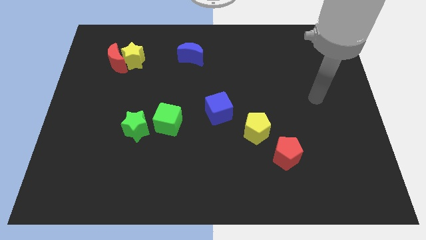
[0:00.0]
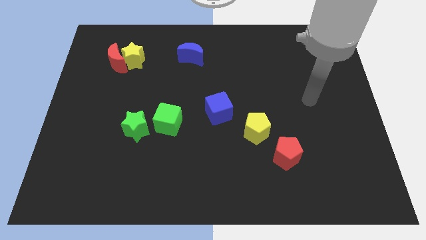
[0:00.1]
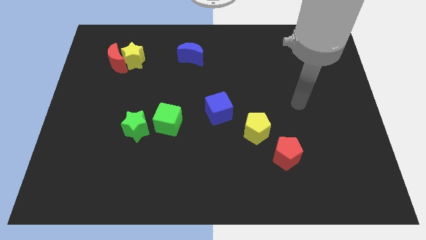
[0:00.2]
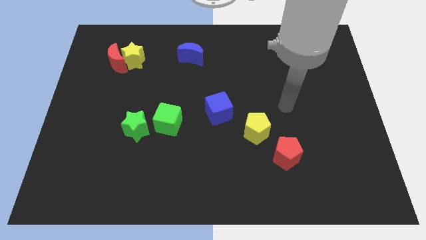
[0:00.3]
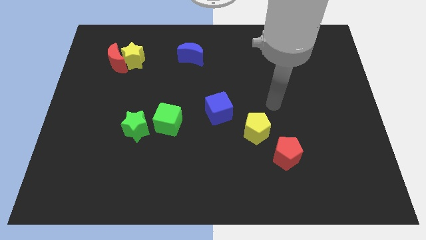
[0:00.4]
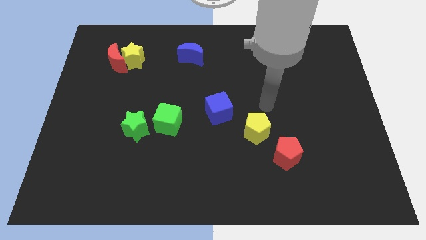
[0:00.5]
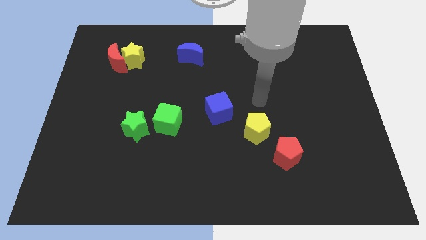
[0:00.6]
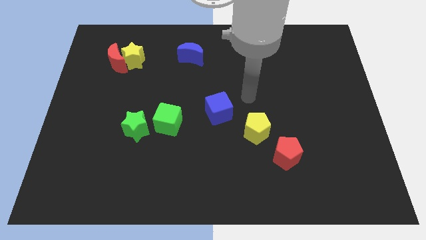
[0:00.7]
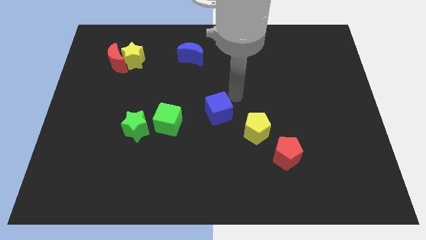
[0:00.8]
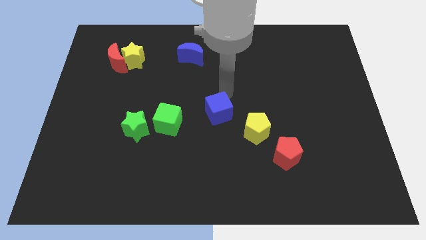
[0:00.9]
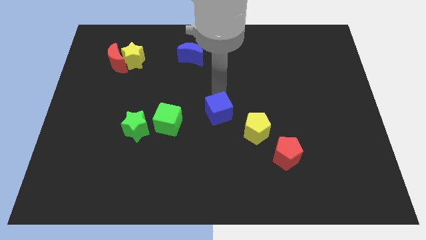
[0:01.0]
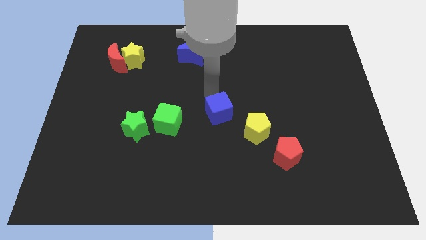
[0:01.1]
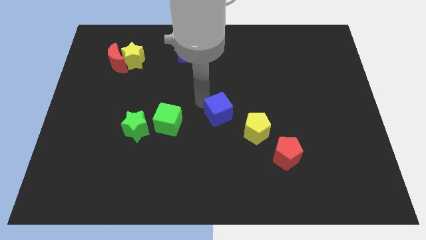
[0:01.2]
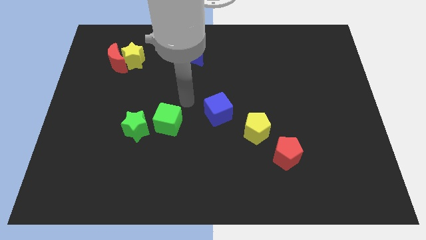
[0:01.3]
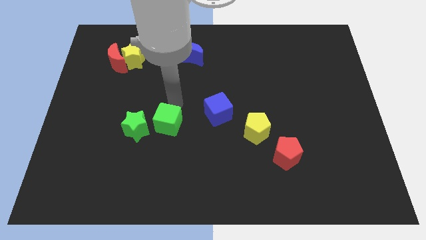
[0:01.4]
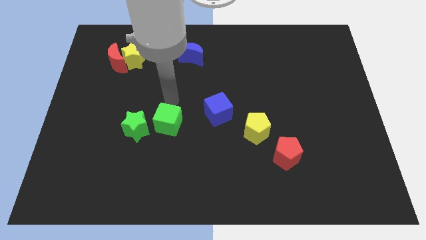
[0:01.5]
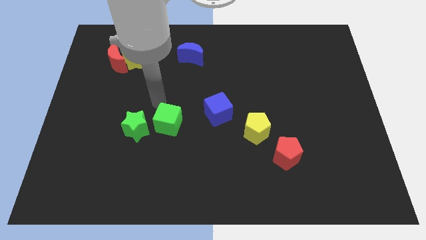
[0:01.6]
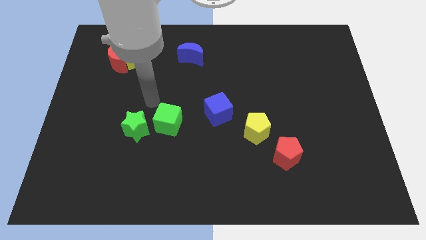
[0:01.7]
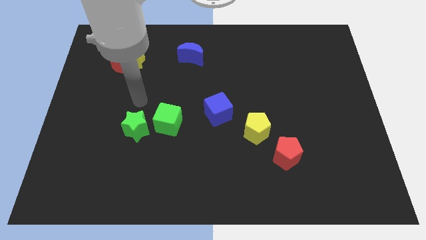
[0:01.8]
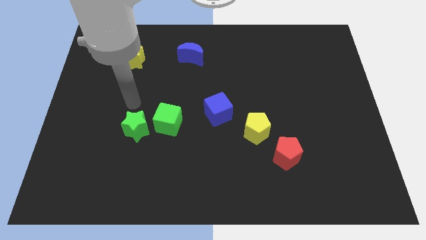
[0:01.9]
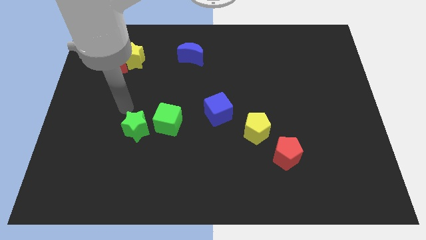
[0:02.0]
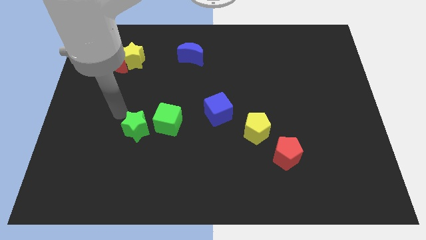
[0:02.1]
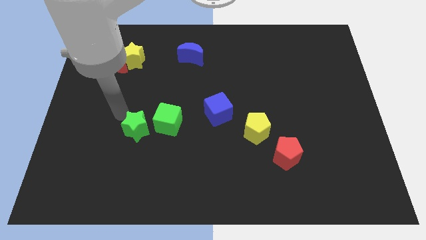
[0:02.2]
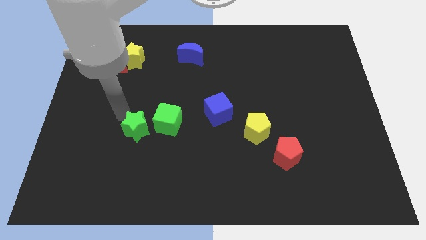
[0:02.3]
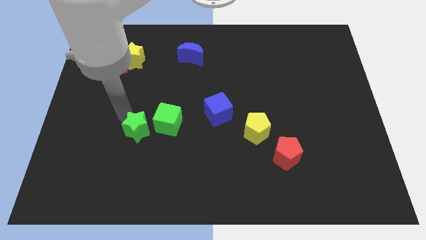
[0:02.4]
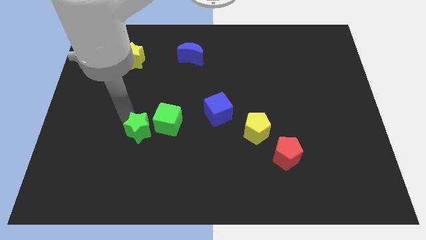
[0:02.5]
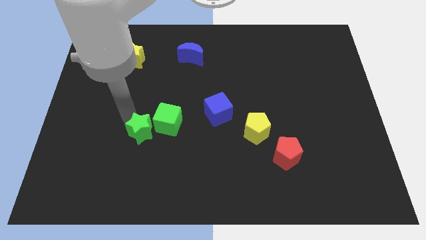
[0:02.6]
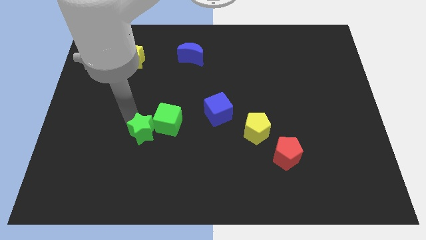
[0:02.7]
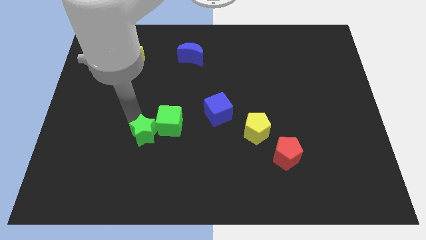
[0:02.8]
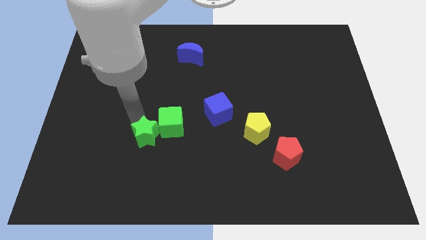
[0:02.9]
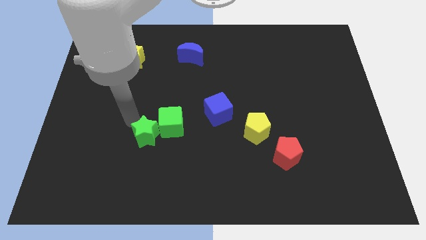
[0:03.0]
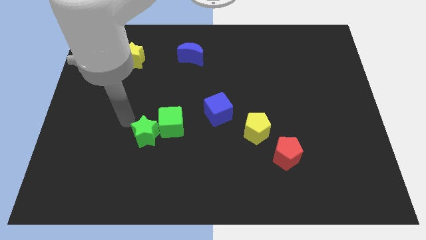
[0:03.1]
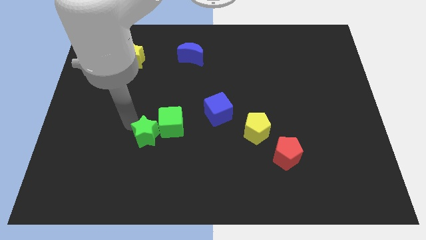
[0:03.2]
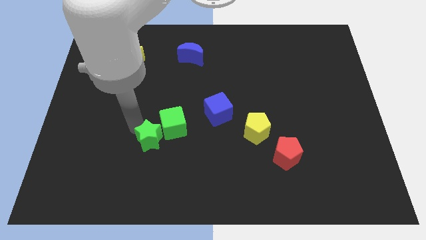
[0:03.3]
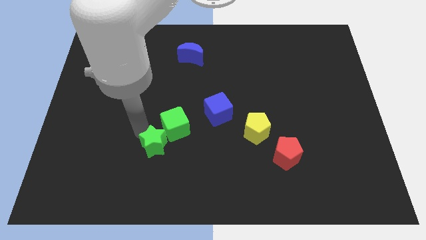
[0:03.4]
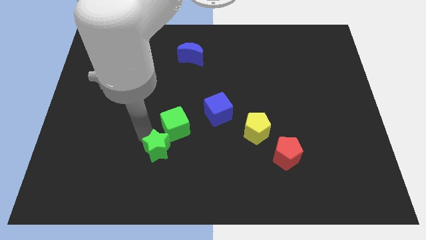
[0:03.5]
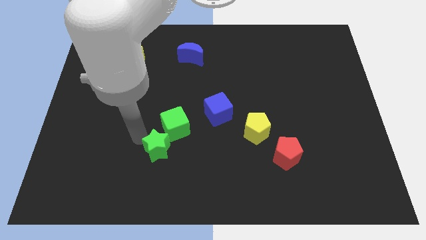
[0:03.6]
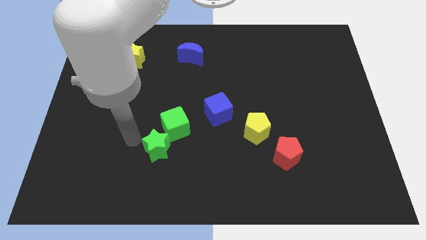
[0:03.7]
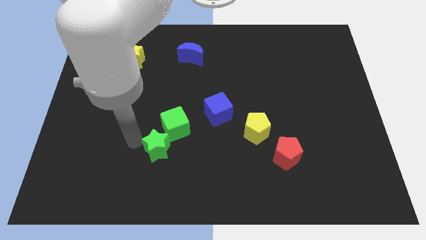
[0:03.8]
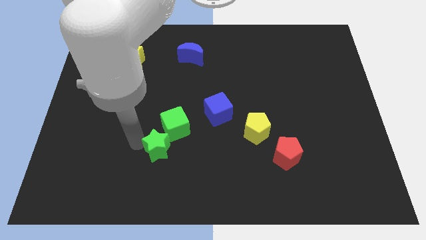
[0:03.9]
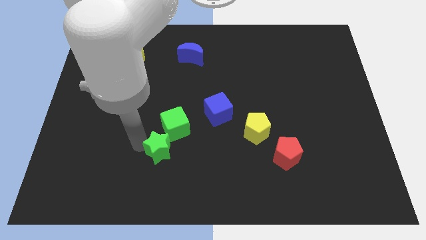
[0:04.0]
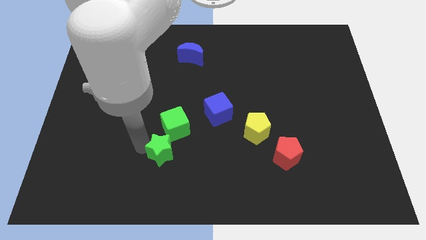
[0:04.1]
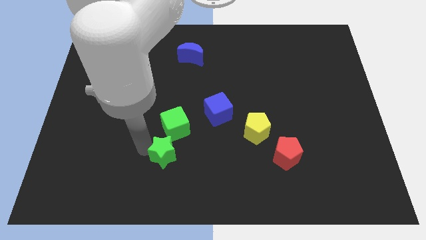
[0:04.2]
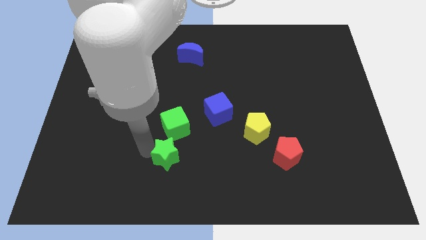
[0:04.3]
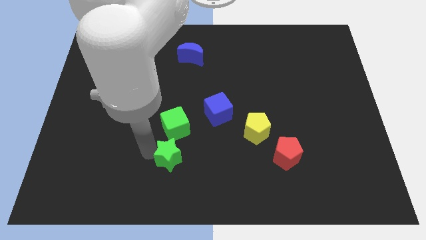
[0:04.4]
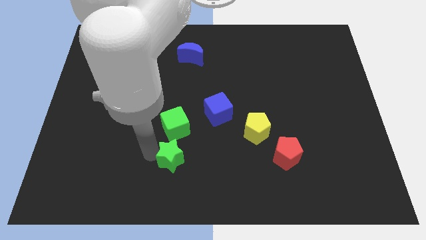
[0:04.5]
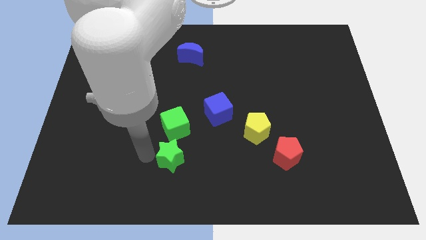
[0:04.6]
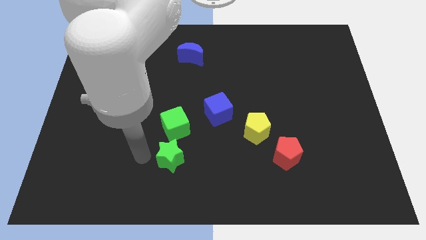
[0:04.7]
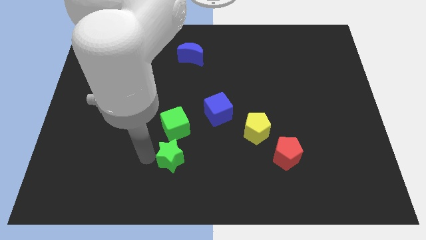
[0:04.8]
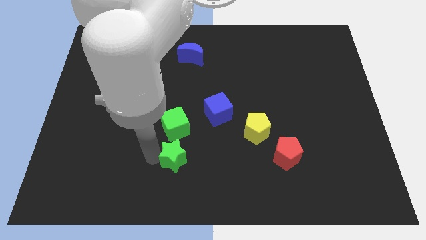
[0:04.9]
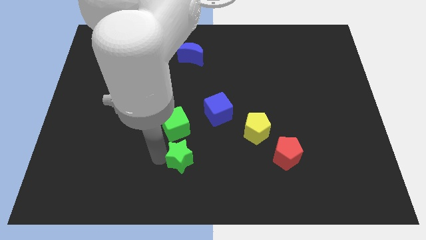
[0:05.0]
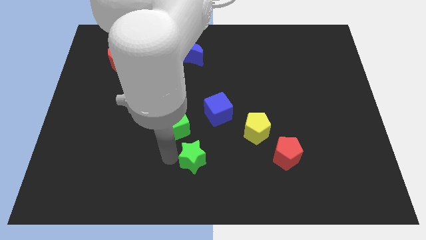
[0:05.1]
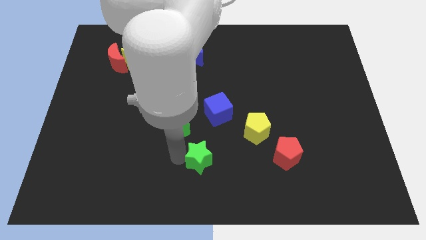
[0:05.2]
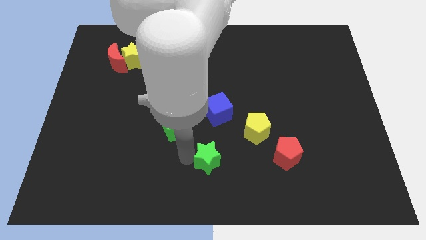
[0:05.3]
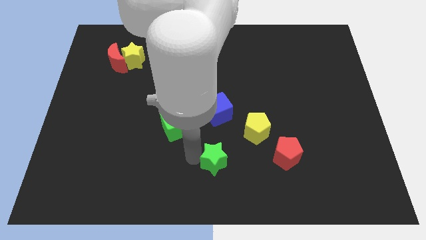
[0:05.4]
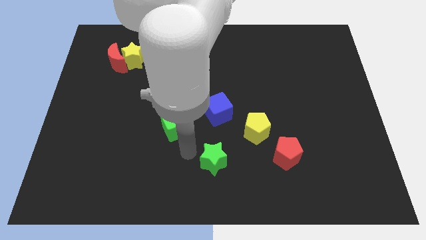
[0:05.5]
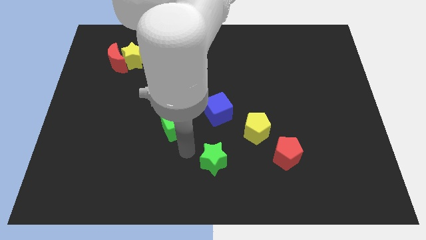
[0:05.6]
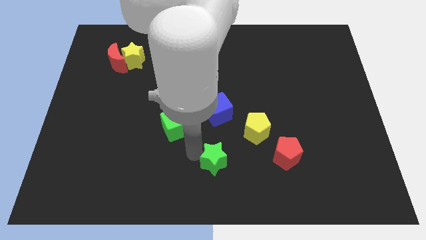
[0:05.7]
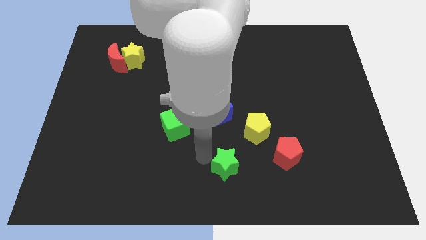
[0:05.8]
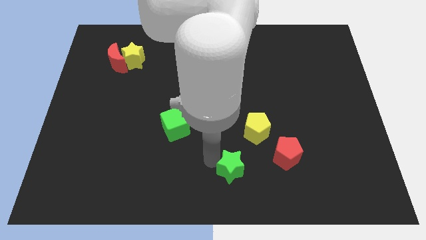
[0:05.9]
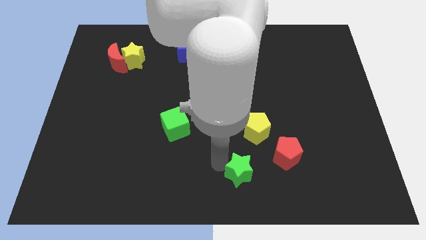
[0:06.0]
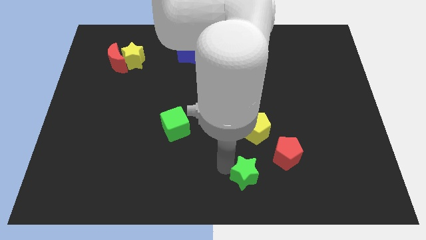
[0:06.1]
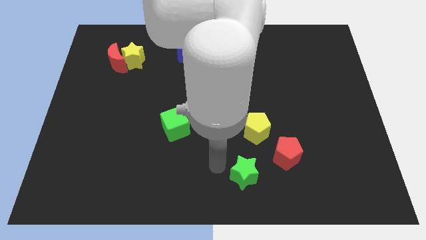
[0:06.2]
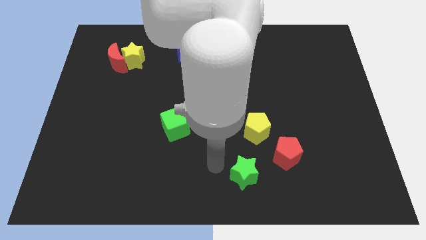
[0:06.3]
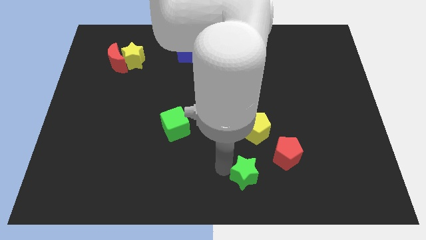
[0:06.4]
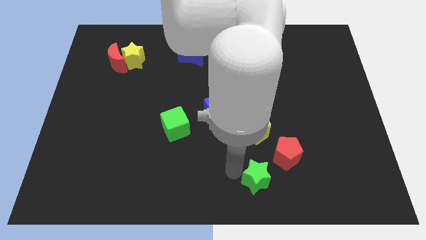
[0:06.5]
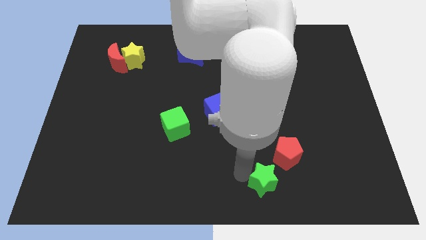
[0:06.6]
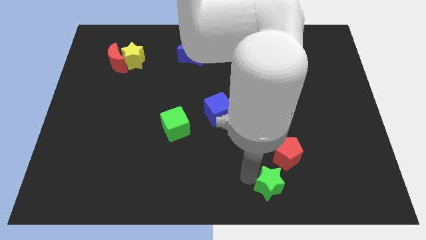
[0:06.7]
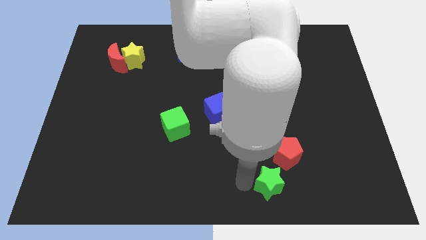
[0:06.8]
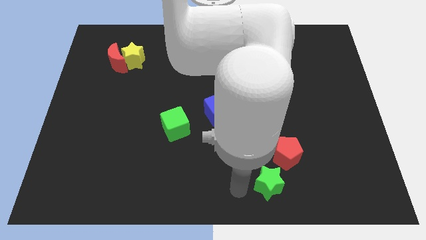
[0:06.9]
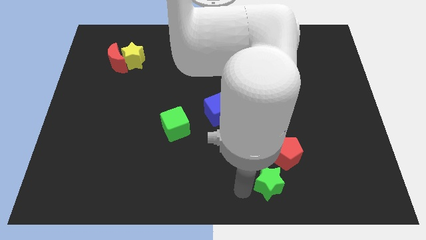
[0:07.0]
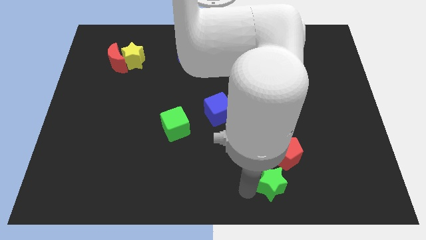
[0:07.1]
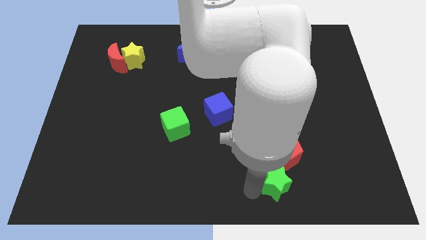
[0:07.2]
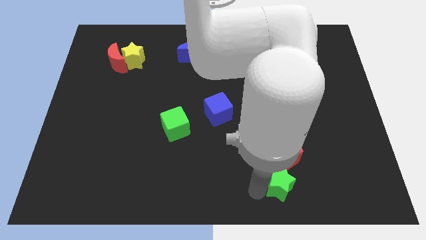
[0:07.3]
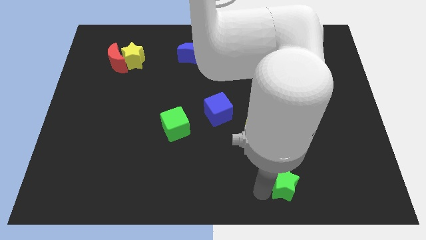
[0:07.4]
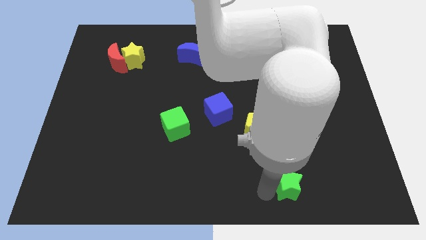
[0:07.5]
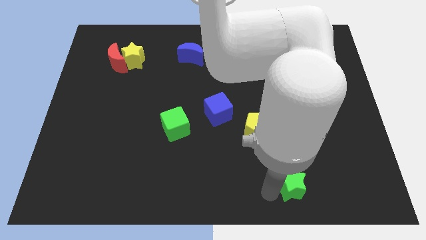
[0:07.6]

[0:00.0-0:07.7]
put the green star to the bottom right of the red pentagon
